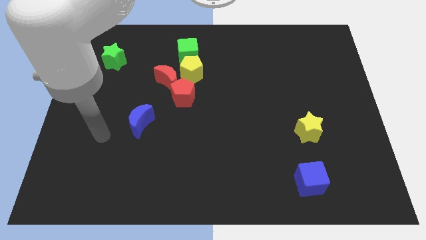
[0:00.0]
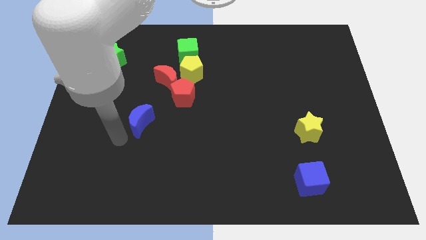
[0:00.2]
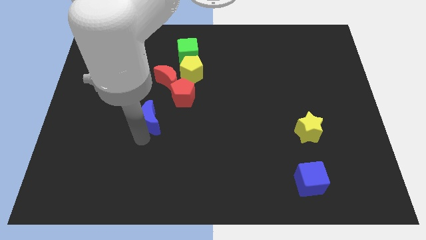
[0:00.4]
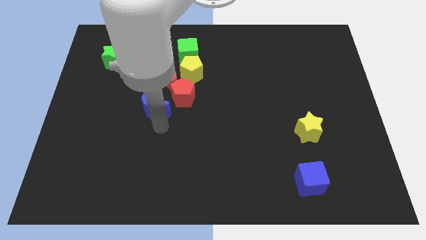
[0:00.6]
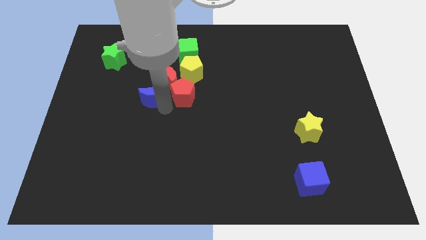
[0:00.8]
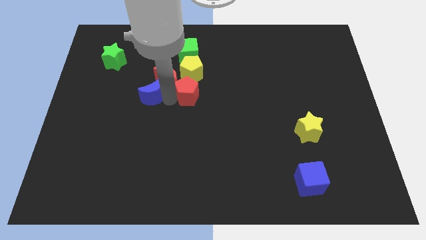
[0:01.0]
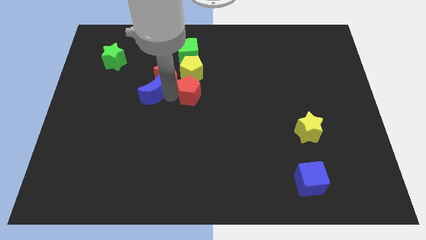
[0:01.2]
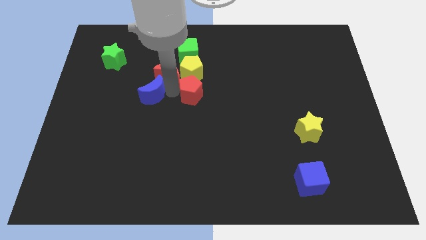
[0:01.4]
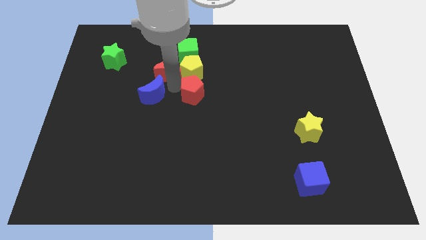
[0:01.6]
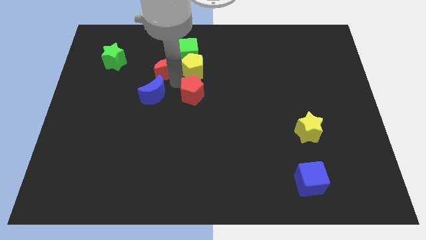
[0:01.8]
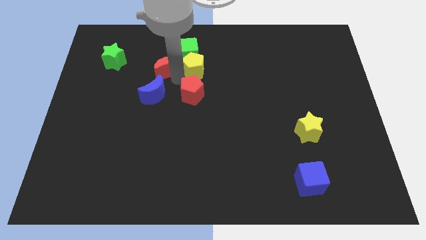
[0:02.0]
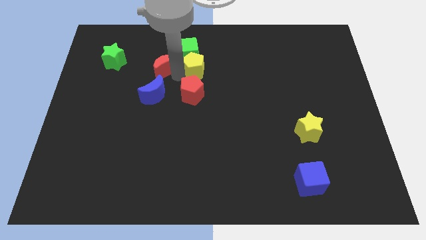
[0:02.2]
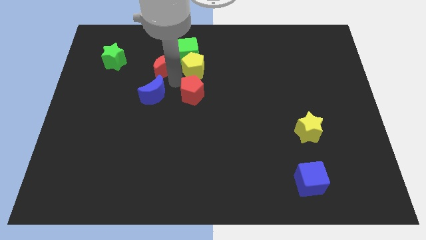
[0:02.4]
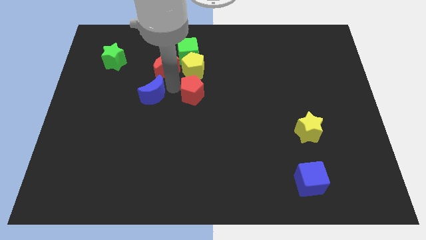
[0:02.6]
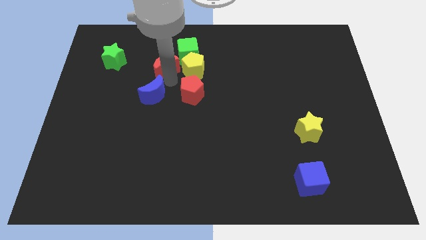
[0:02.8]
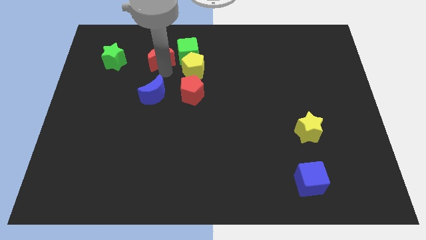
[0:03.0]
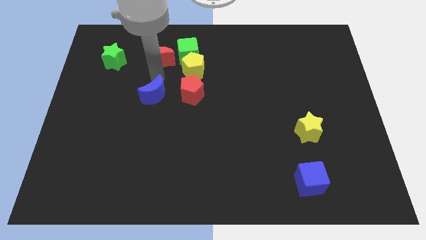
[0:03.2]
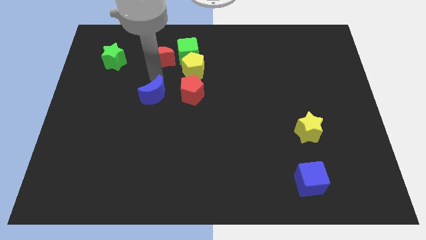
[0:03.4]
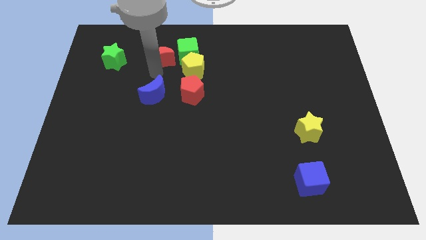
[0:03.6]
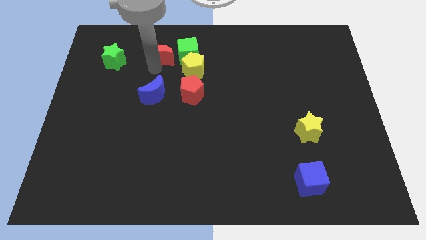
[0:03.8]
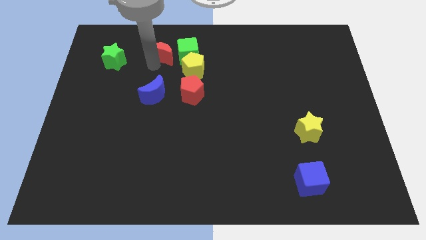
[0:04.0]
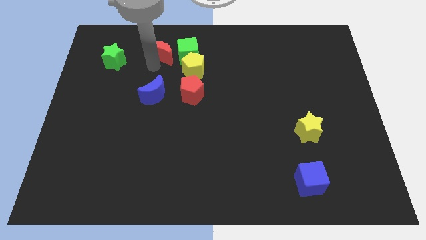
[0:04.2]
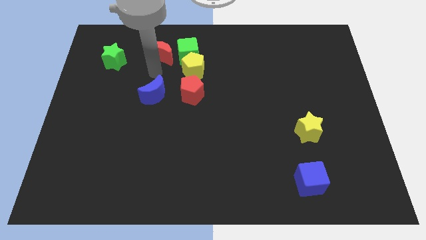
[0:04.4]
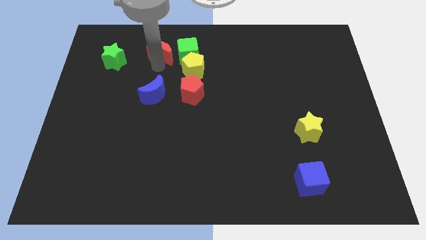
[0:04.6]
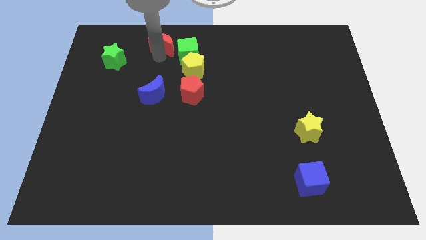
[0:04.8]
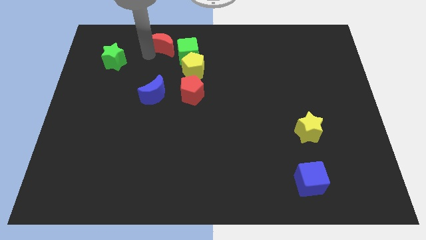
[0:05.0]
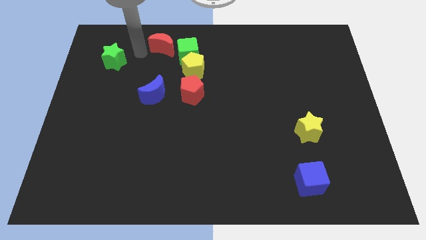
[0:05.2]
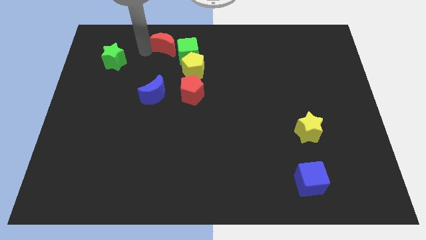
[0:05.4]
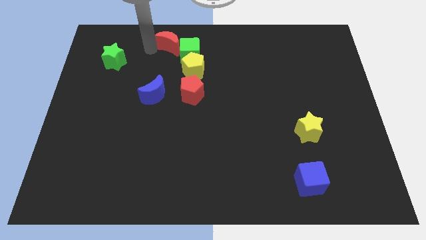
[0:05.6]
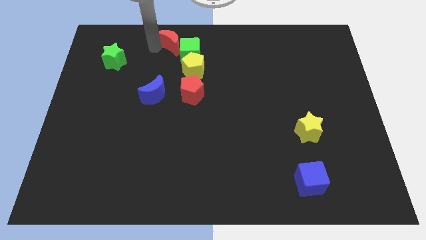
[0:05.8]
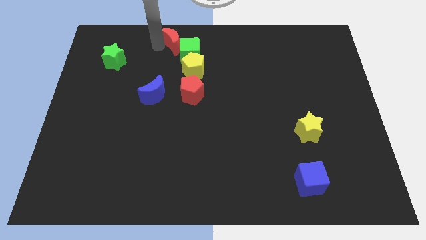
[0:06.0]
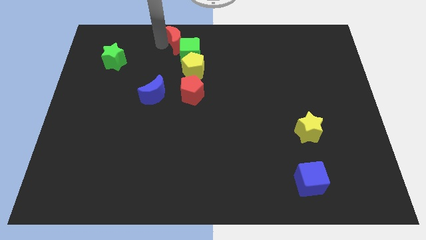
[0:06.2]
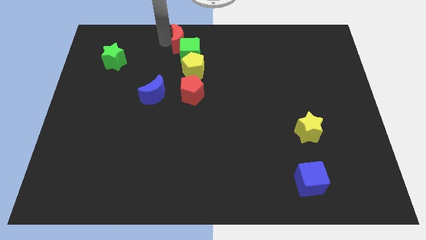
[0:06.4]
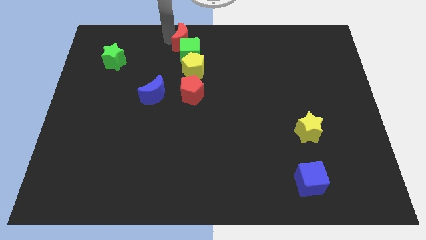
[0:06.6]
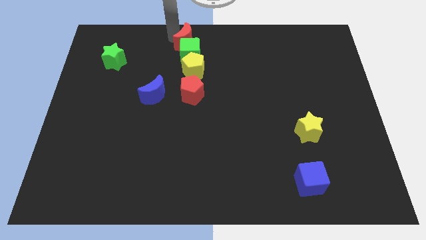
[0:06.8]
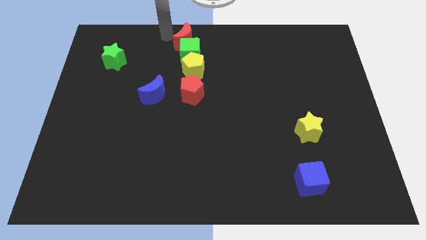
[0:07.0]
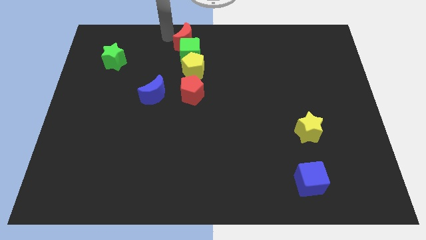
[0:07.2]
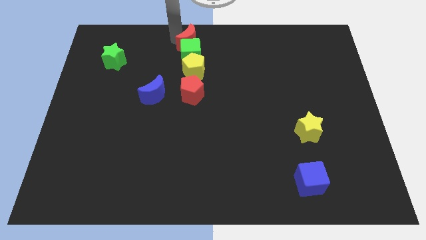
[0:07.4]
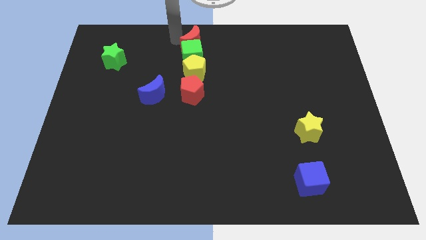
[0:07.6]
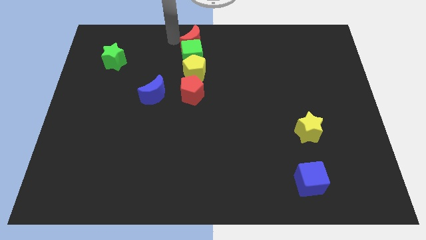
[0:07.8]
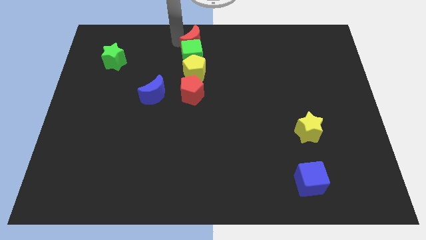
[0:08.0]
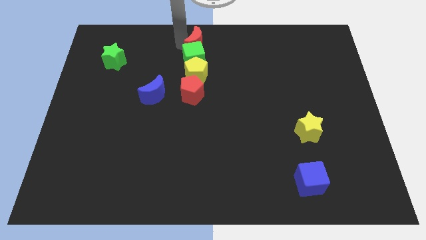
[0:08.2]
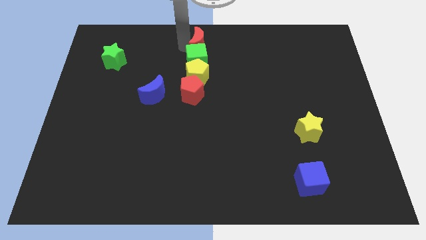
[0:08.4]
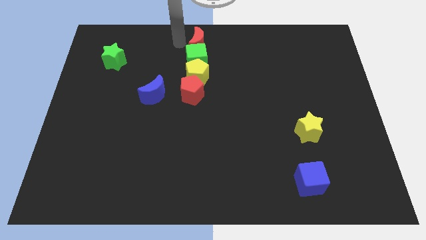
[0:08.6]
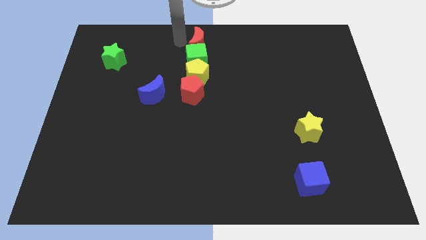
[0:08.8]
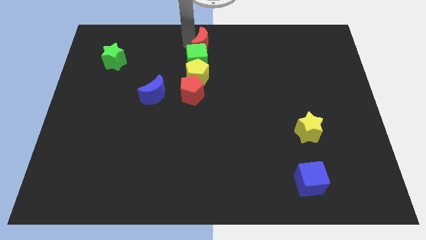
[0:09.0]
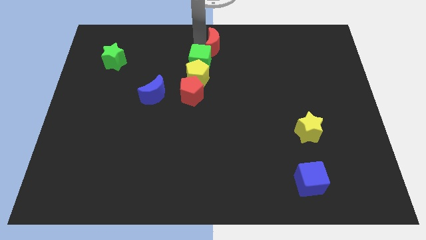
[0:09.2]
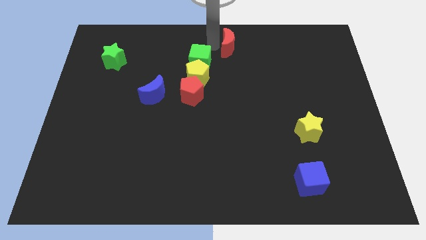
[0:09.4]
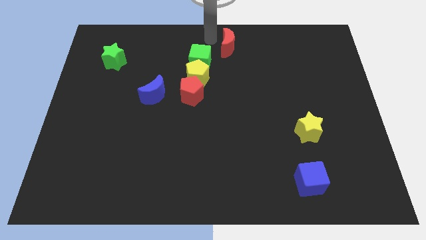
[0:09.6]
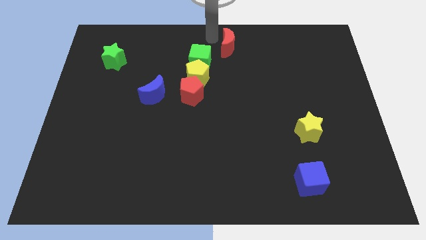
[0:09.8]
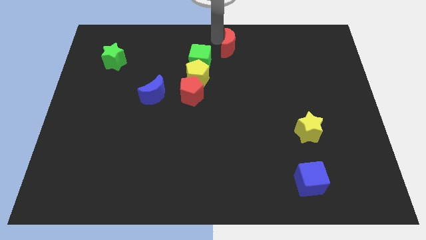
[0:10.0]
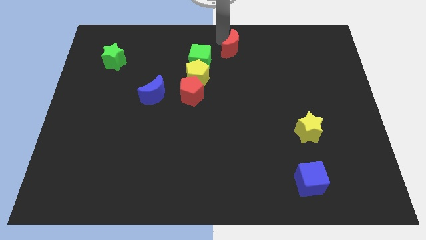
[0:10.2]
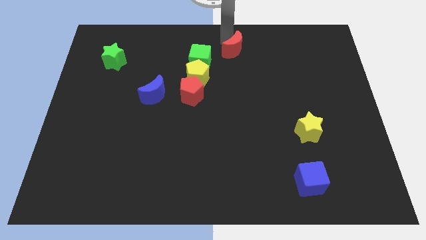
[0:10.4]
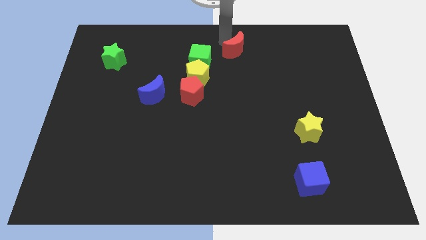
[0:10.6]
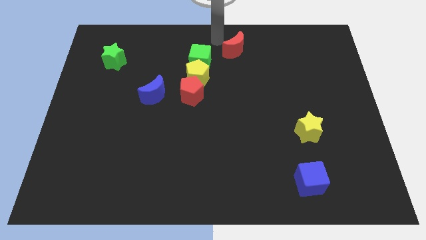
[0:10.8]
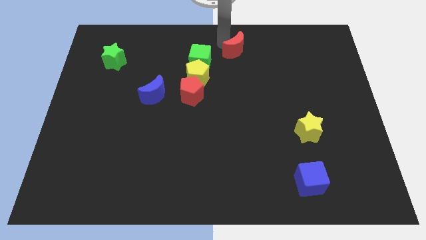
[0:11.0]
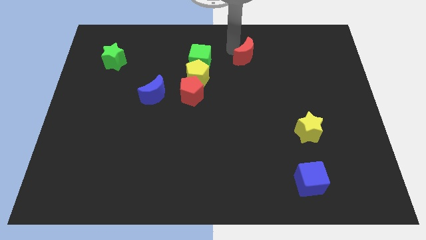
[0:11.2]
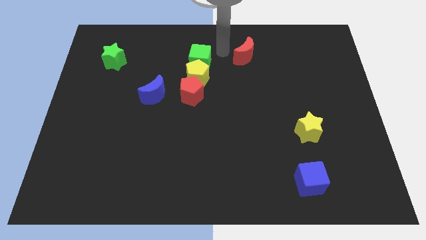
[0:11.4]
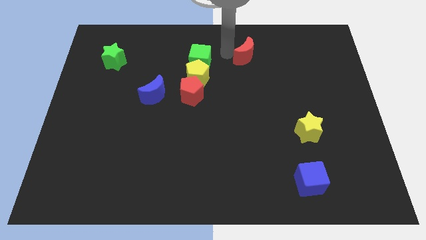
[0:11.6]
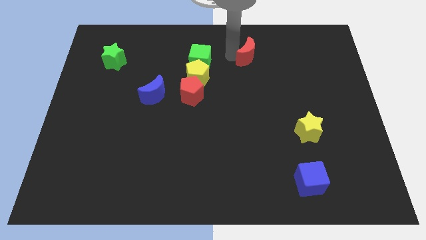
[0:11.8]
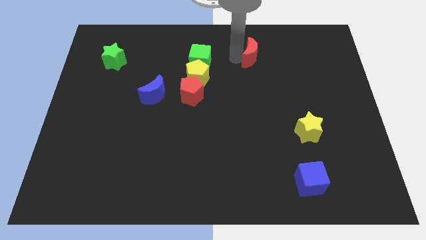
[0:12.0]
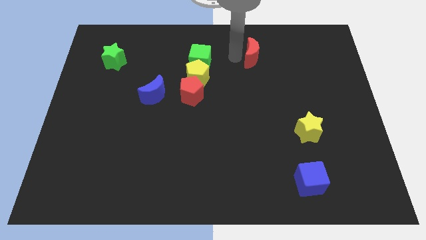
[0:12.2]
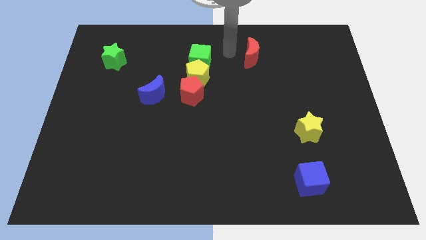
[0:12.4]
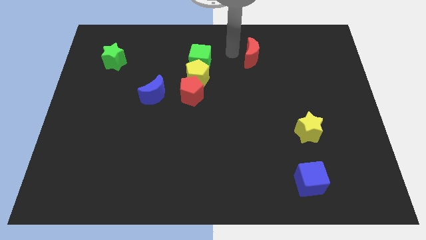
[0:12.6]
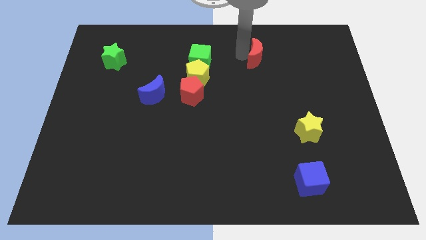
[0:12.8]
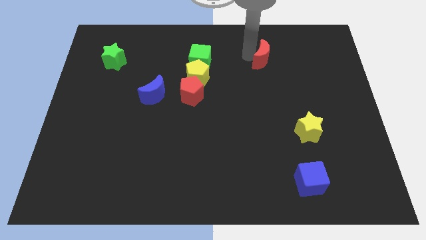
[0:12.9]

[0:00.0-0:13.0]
push the red moon to the right

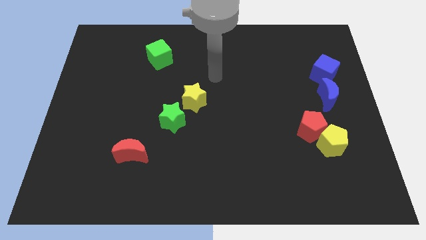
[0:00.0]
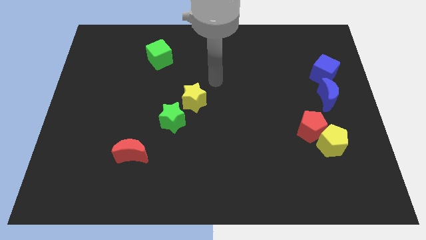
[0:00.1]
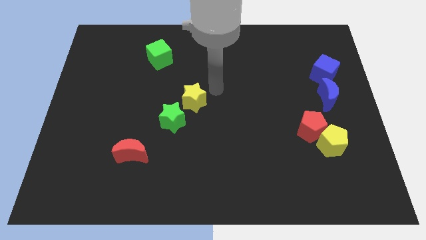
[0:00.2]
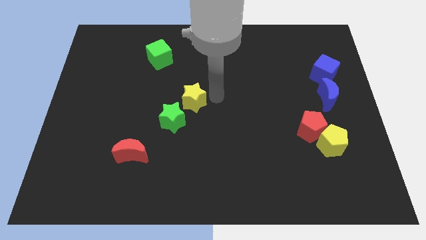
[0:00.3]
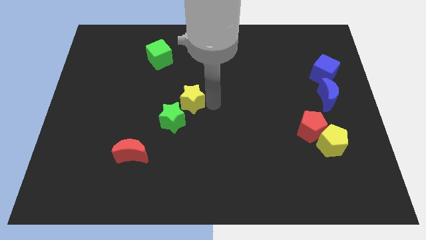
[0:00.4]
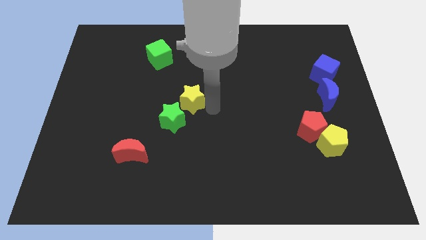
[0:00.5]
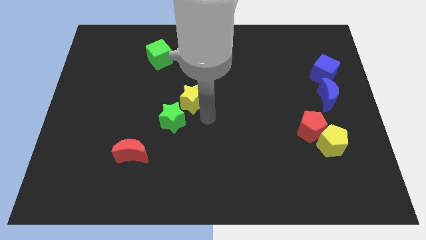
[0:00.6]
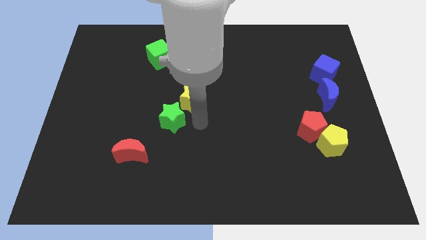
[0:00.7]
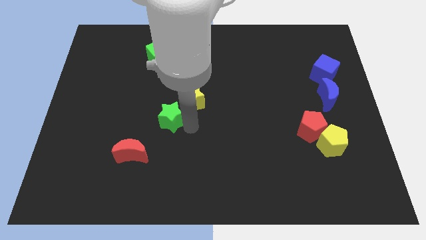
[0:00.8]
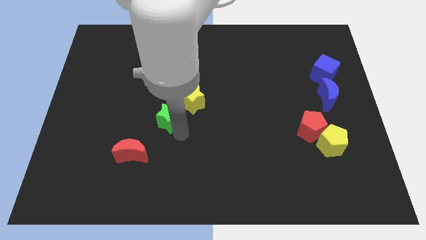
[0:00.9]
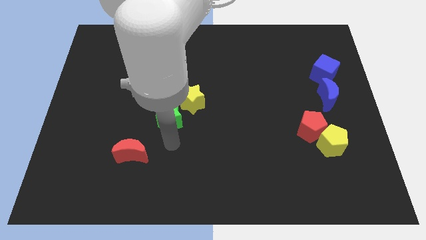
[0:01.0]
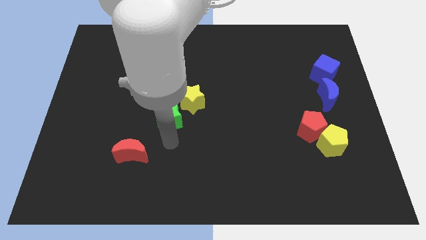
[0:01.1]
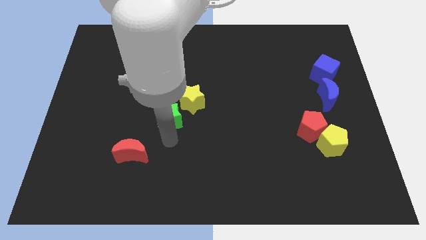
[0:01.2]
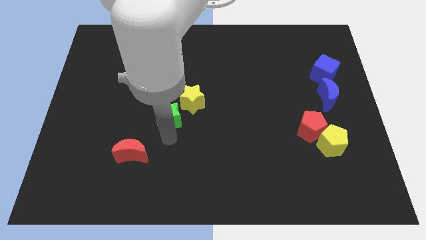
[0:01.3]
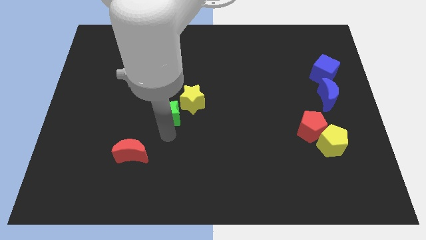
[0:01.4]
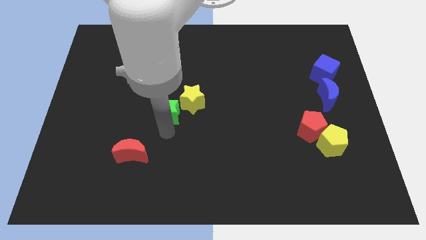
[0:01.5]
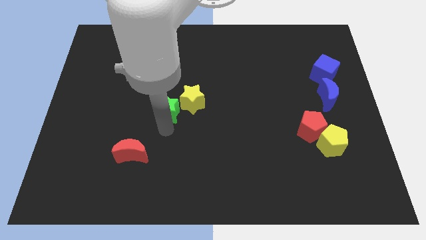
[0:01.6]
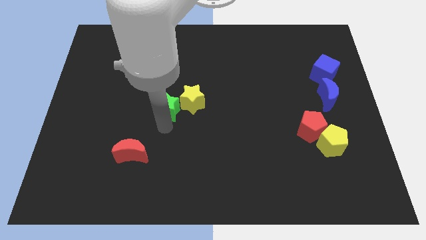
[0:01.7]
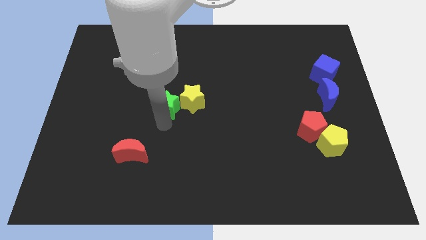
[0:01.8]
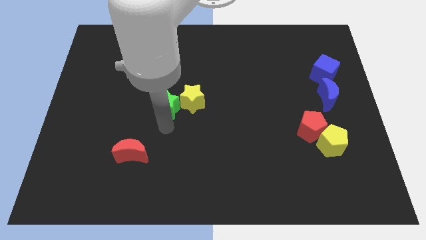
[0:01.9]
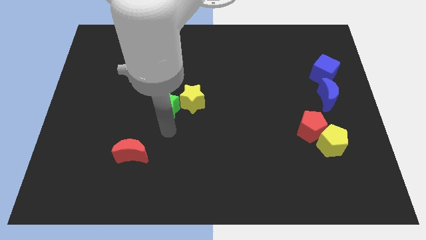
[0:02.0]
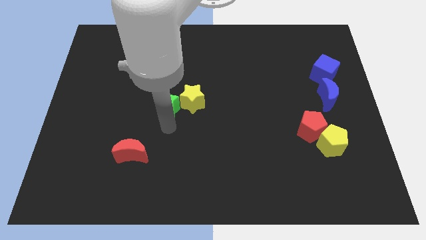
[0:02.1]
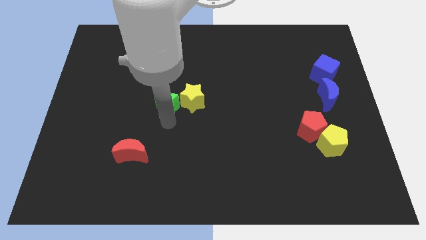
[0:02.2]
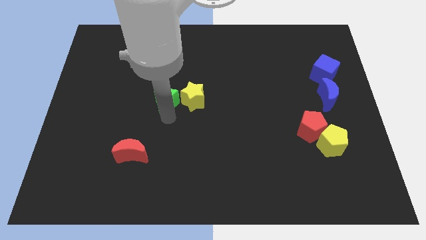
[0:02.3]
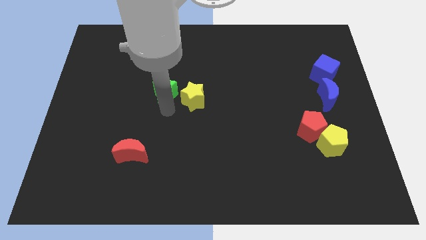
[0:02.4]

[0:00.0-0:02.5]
move the green star up a little
